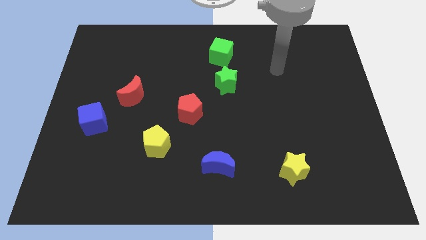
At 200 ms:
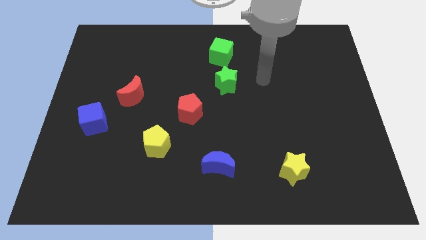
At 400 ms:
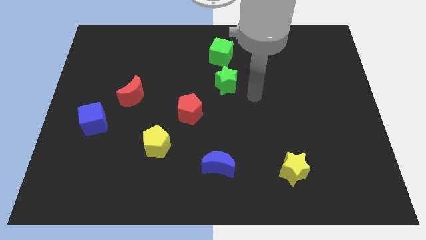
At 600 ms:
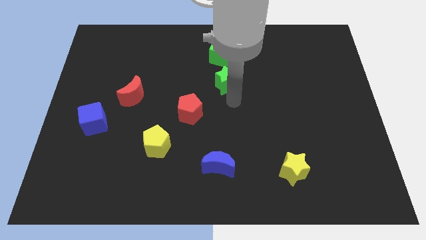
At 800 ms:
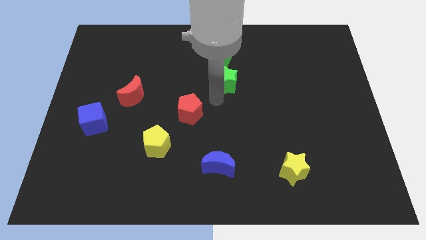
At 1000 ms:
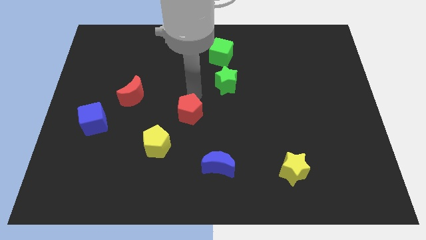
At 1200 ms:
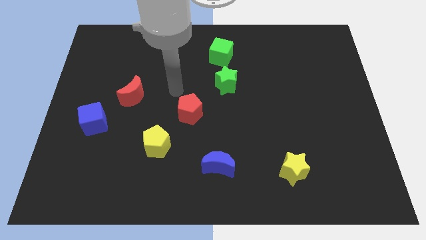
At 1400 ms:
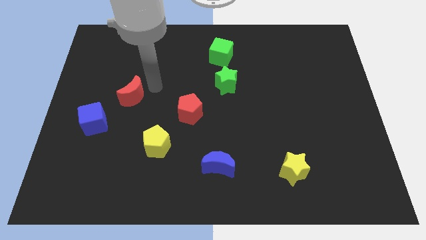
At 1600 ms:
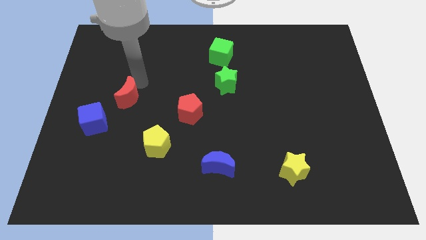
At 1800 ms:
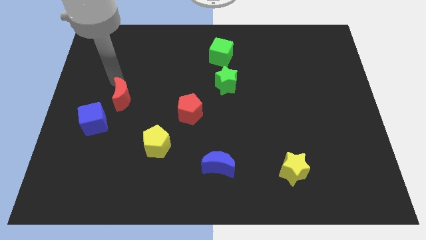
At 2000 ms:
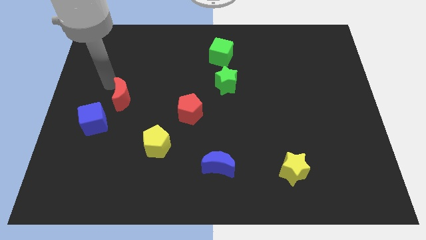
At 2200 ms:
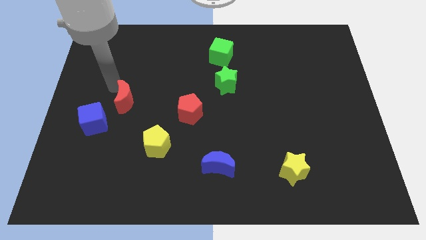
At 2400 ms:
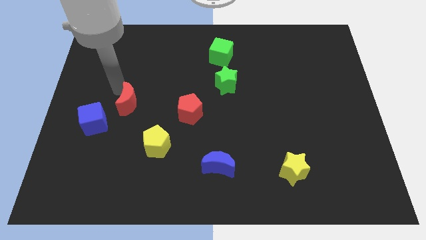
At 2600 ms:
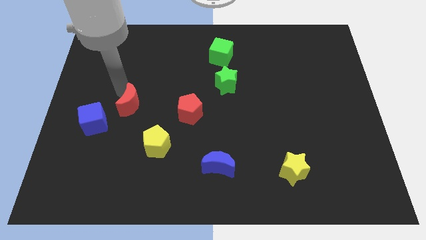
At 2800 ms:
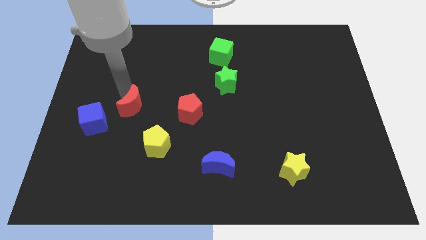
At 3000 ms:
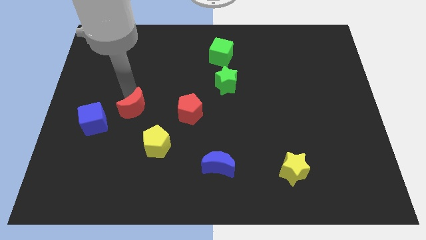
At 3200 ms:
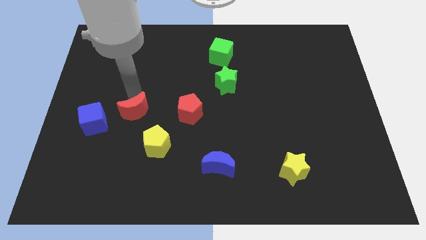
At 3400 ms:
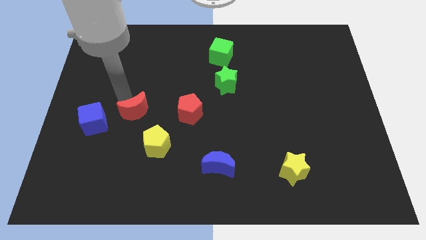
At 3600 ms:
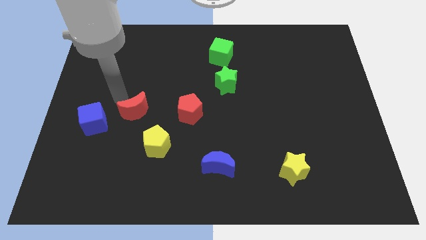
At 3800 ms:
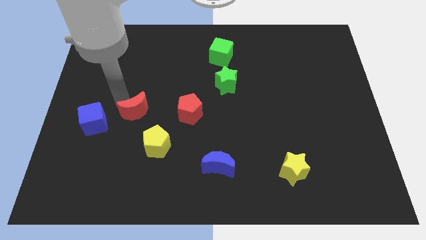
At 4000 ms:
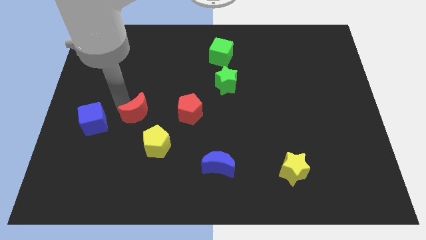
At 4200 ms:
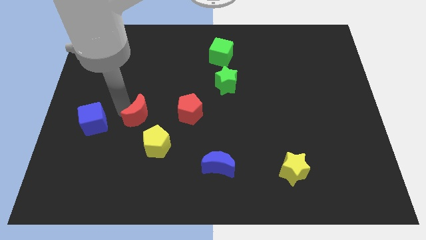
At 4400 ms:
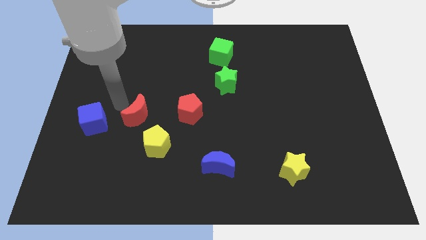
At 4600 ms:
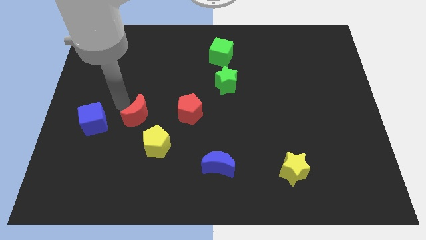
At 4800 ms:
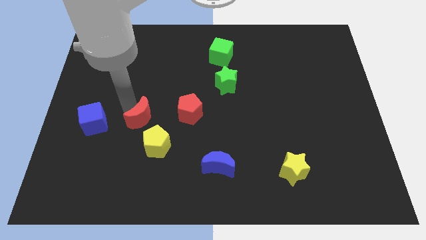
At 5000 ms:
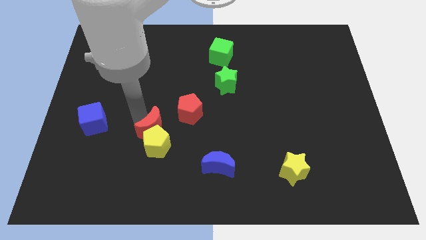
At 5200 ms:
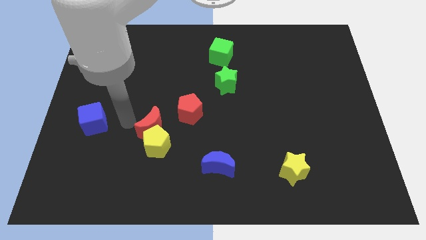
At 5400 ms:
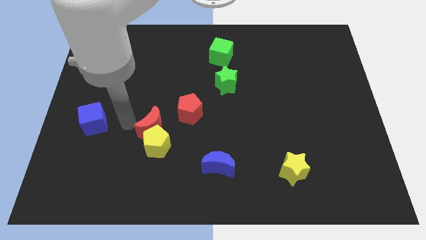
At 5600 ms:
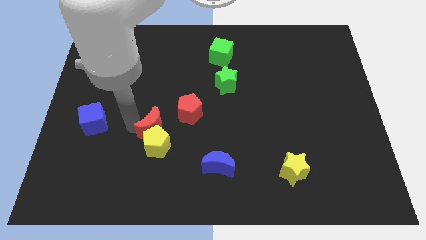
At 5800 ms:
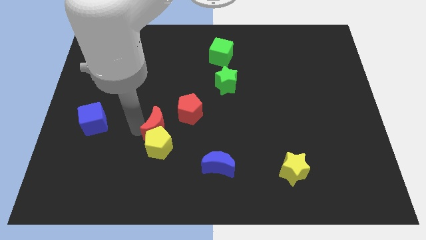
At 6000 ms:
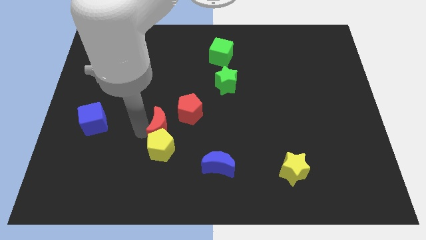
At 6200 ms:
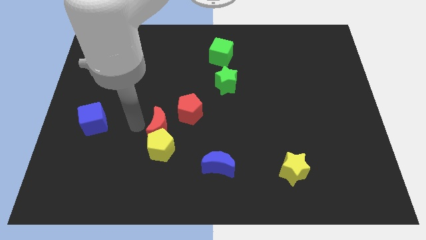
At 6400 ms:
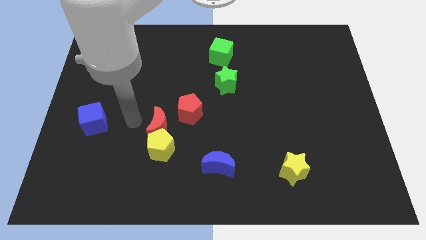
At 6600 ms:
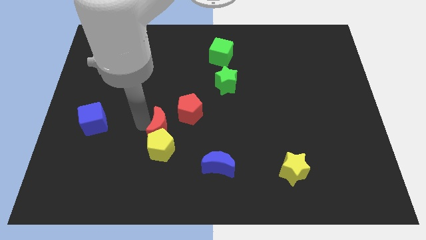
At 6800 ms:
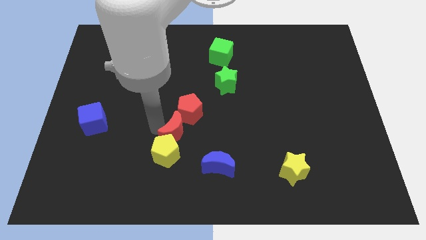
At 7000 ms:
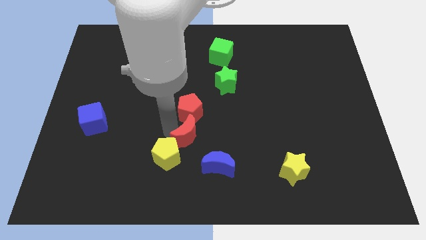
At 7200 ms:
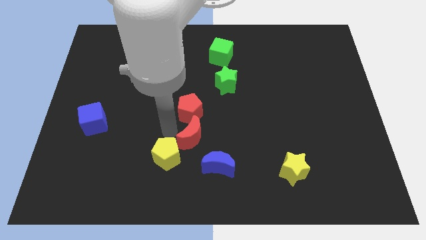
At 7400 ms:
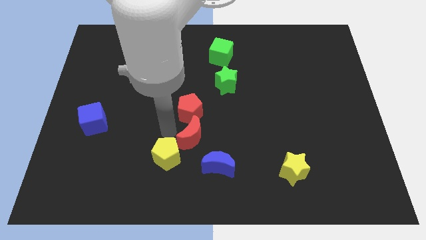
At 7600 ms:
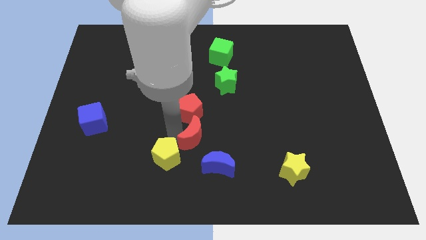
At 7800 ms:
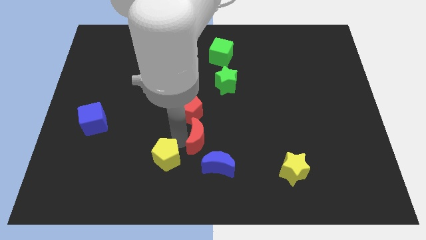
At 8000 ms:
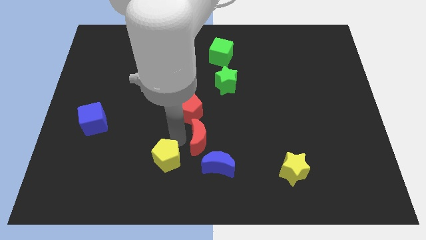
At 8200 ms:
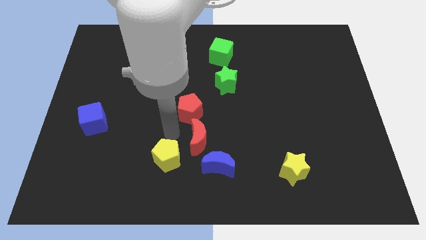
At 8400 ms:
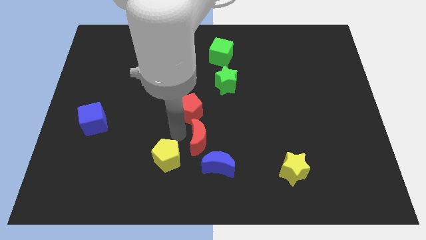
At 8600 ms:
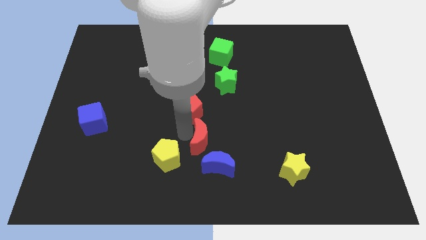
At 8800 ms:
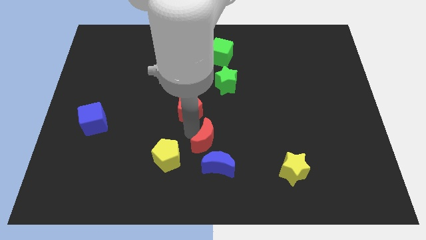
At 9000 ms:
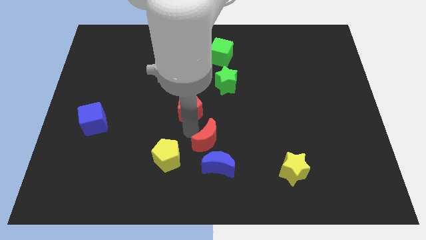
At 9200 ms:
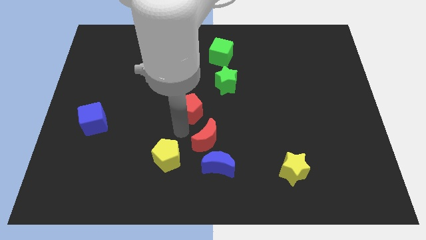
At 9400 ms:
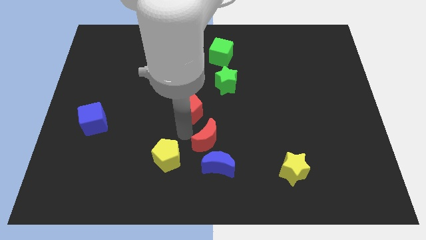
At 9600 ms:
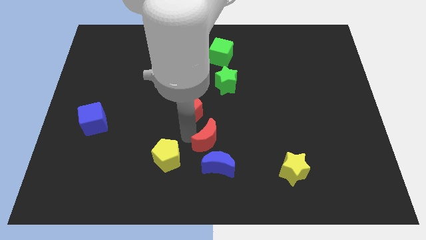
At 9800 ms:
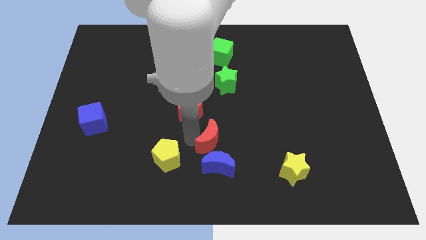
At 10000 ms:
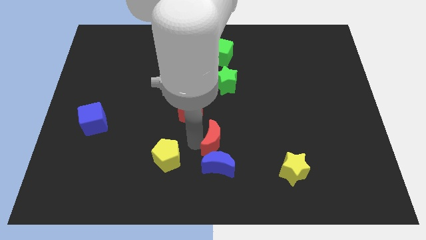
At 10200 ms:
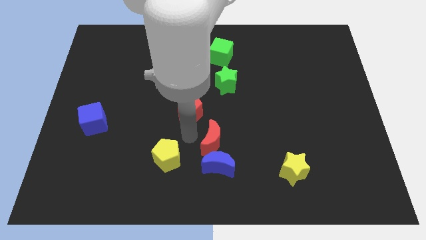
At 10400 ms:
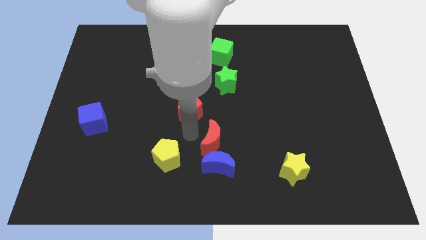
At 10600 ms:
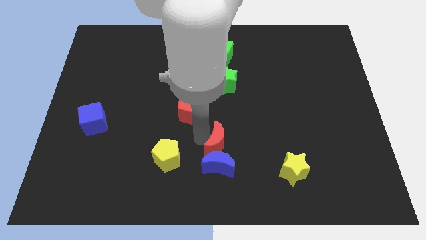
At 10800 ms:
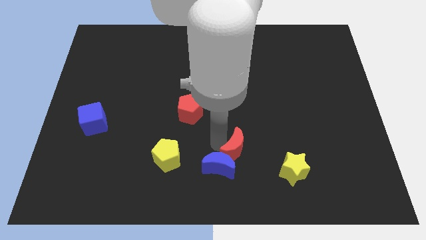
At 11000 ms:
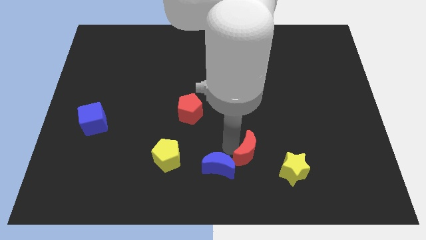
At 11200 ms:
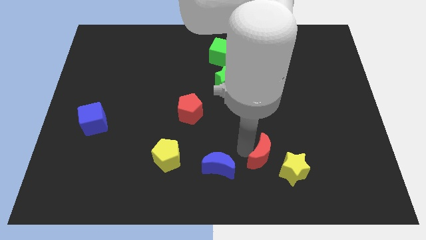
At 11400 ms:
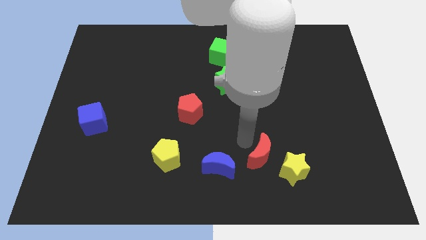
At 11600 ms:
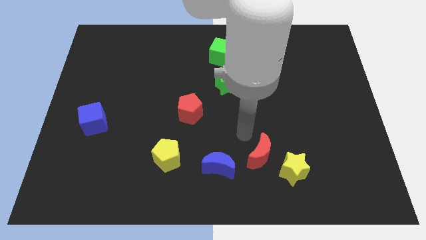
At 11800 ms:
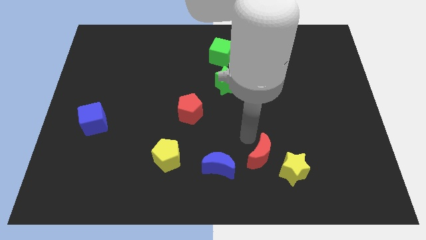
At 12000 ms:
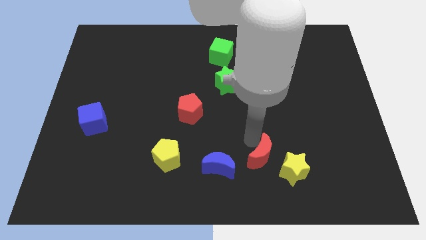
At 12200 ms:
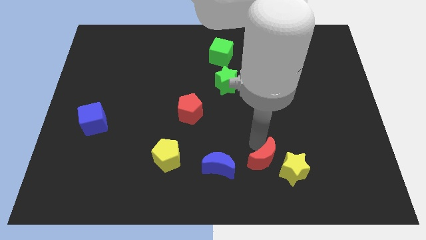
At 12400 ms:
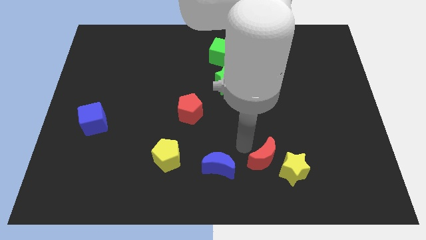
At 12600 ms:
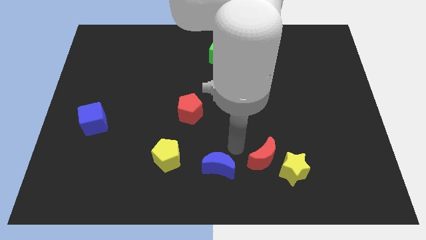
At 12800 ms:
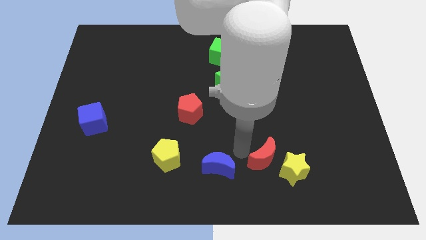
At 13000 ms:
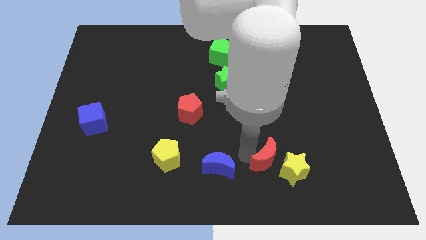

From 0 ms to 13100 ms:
push the red moon close to the yellow star

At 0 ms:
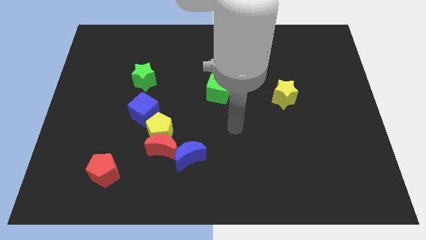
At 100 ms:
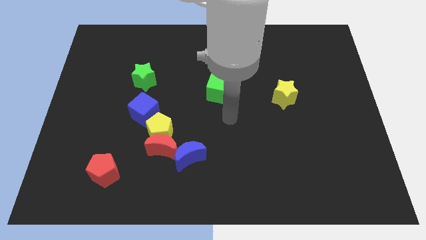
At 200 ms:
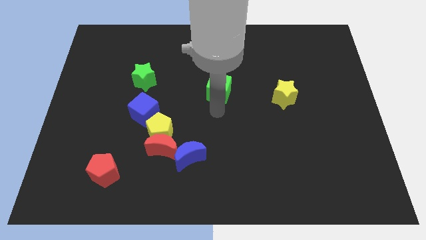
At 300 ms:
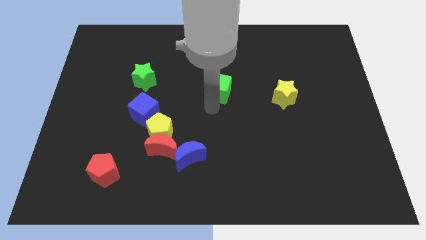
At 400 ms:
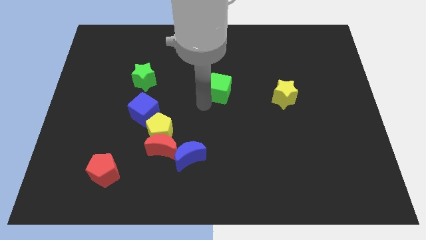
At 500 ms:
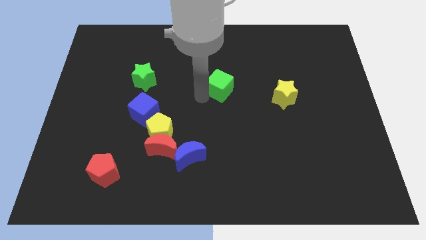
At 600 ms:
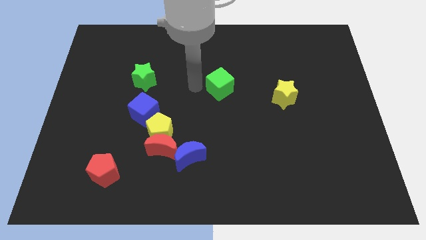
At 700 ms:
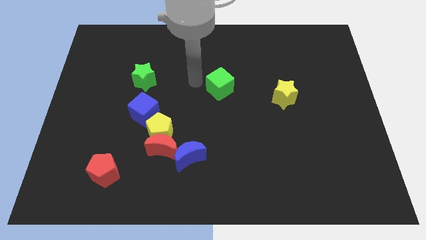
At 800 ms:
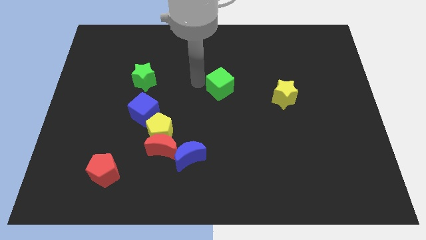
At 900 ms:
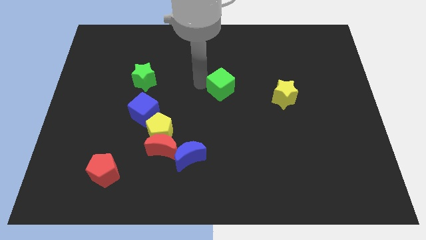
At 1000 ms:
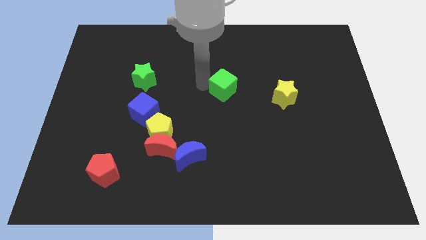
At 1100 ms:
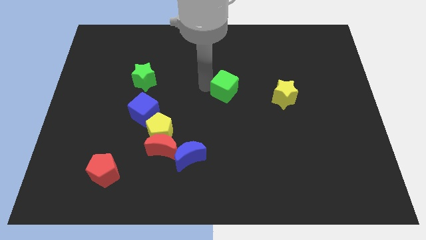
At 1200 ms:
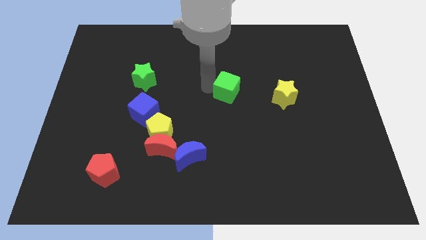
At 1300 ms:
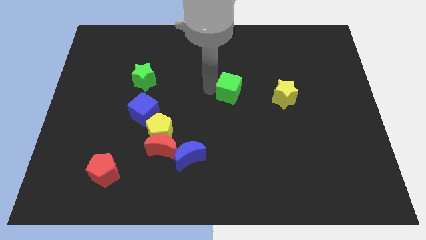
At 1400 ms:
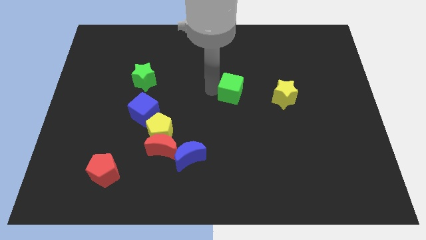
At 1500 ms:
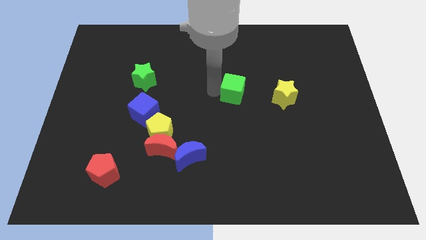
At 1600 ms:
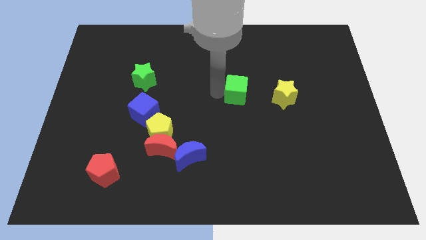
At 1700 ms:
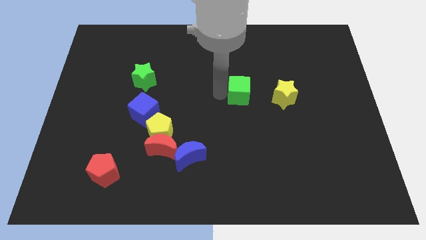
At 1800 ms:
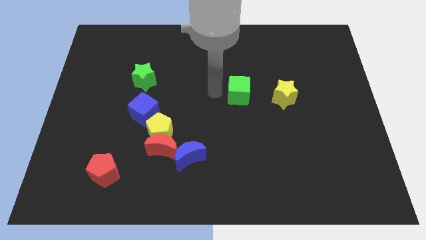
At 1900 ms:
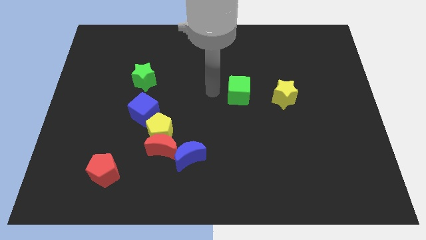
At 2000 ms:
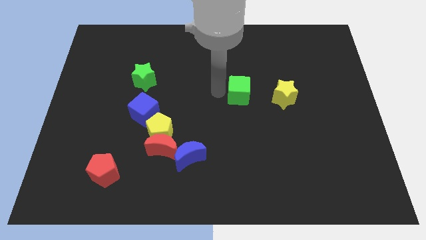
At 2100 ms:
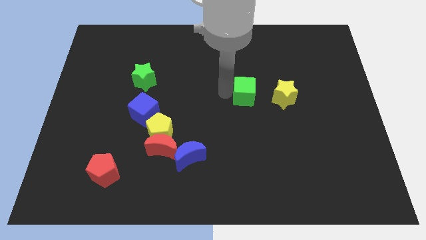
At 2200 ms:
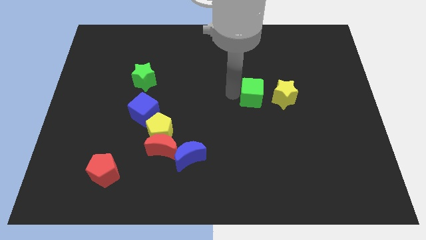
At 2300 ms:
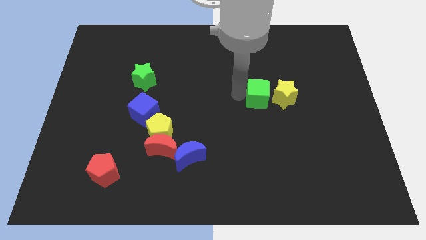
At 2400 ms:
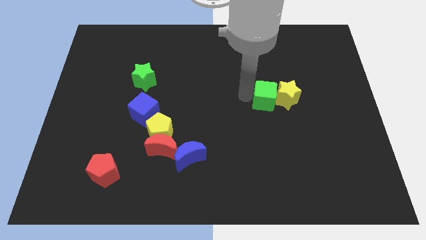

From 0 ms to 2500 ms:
push the green cube to the yellow star
